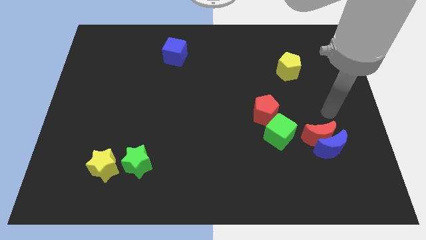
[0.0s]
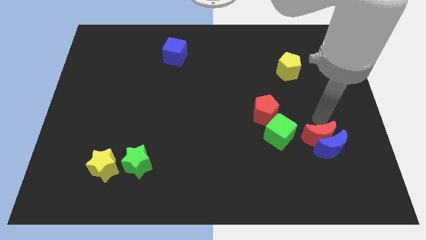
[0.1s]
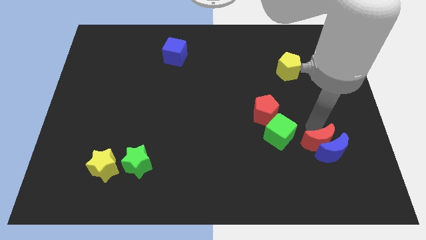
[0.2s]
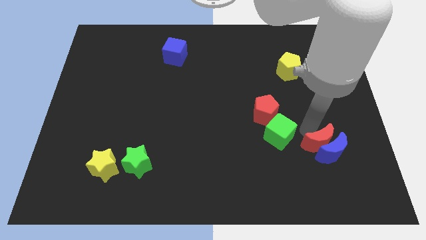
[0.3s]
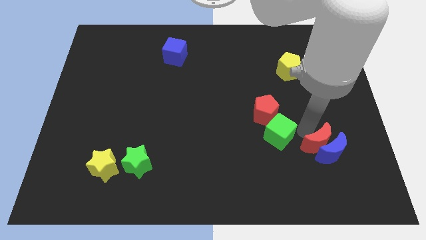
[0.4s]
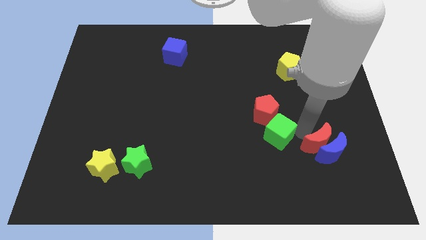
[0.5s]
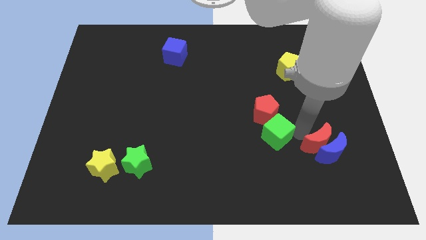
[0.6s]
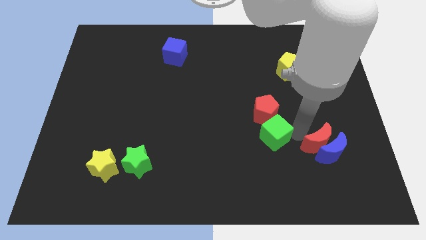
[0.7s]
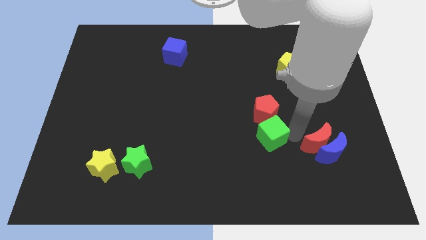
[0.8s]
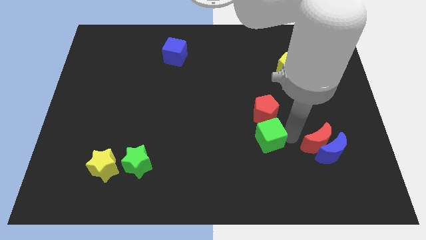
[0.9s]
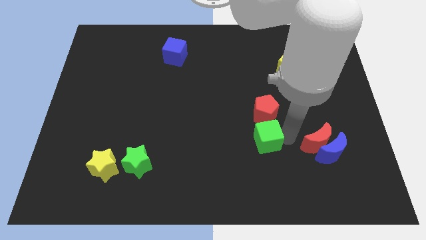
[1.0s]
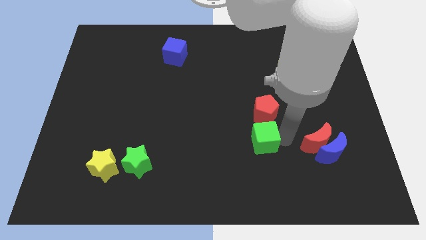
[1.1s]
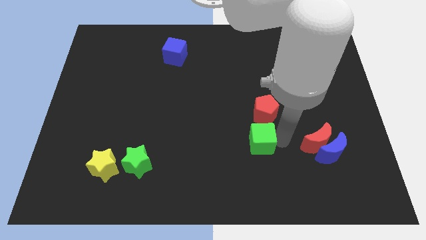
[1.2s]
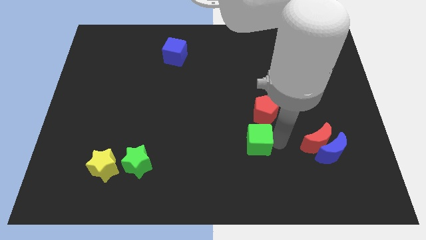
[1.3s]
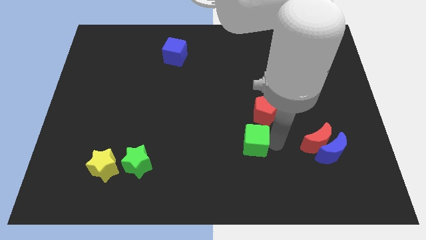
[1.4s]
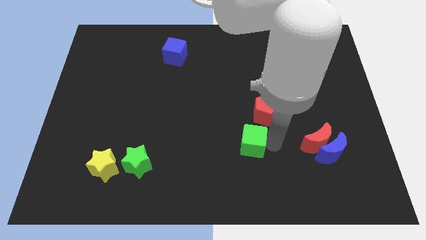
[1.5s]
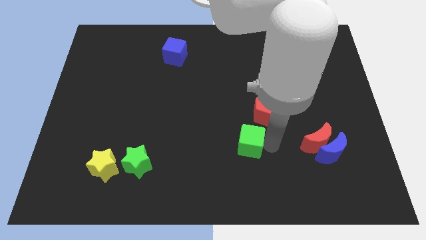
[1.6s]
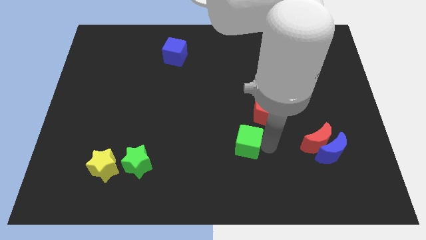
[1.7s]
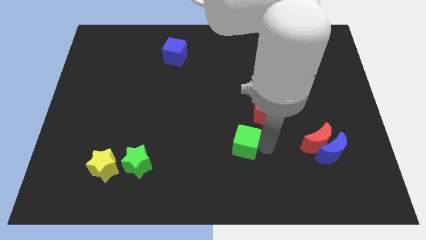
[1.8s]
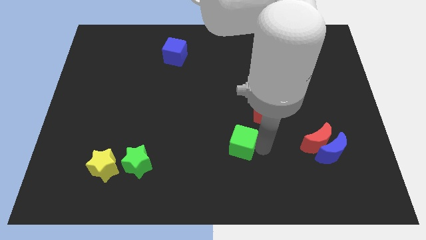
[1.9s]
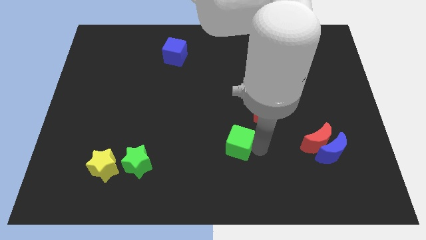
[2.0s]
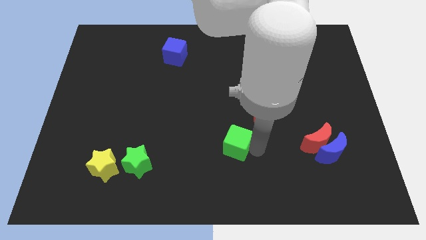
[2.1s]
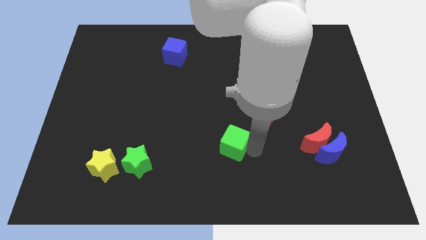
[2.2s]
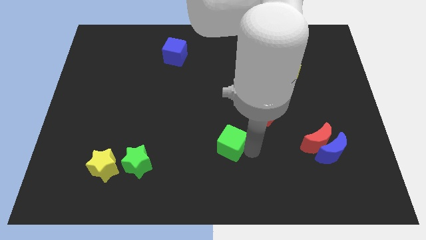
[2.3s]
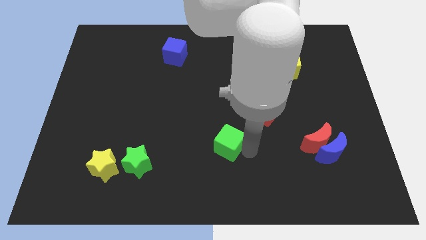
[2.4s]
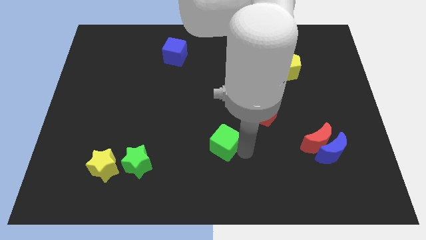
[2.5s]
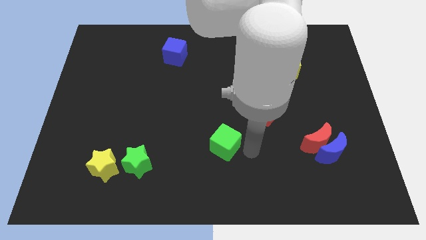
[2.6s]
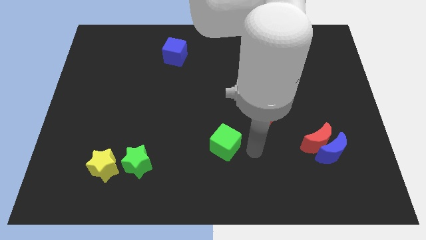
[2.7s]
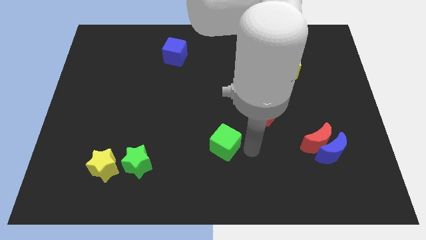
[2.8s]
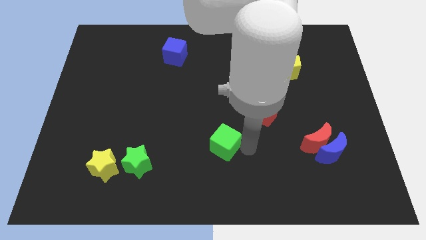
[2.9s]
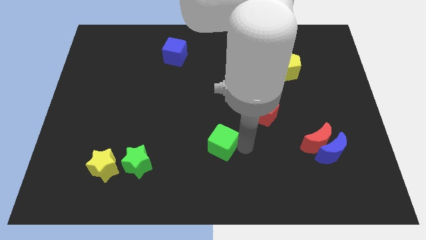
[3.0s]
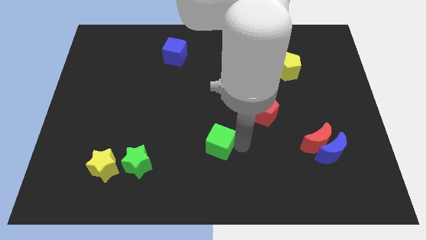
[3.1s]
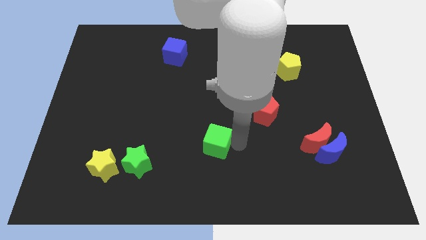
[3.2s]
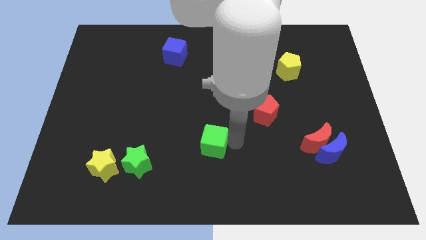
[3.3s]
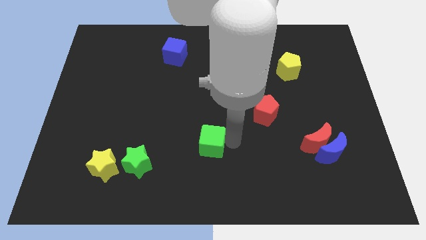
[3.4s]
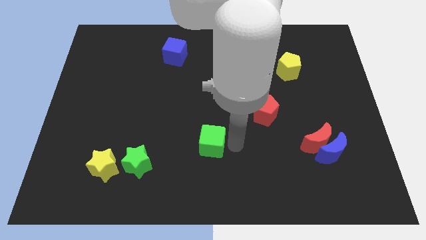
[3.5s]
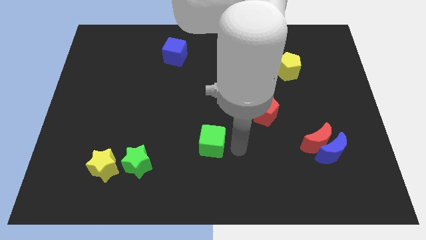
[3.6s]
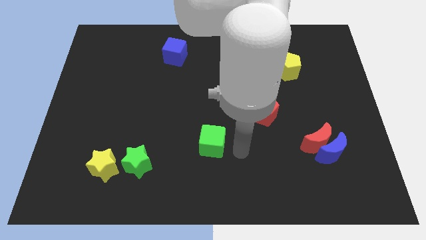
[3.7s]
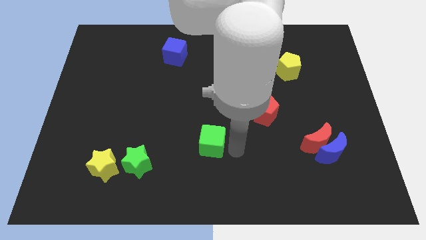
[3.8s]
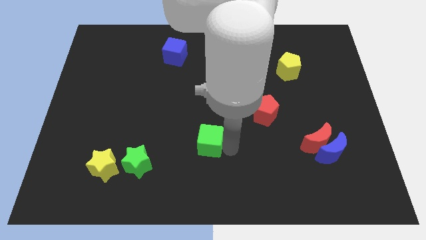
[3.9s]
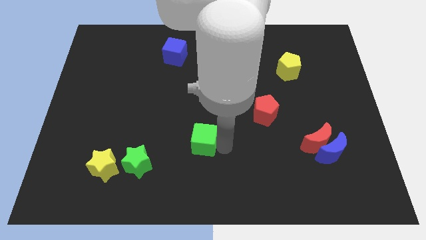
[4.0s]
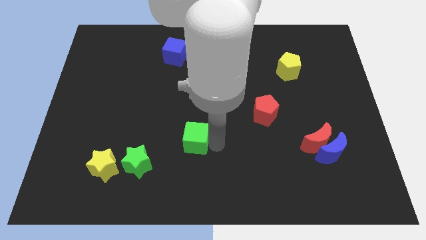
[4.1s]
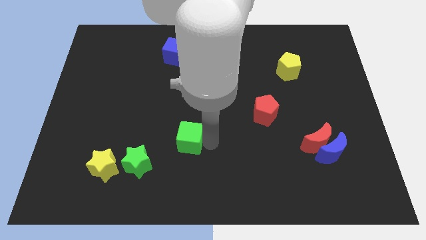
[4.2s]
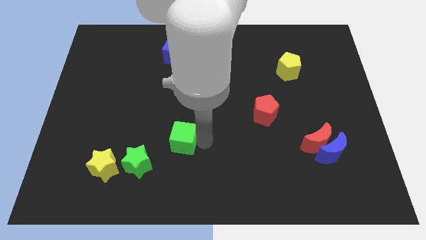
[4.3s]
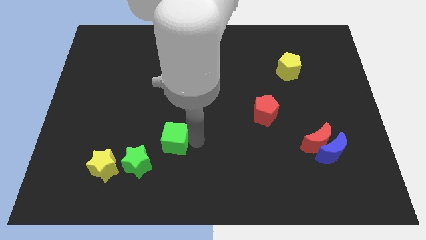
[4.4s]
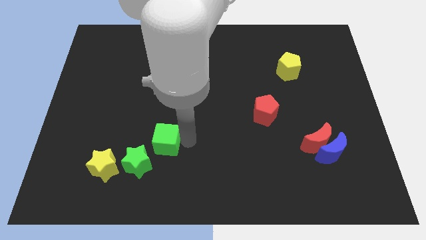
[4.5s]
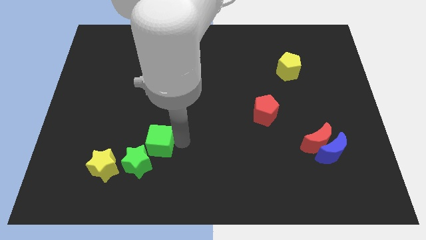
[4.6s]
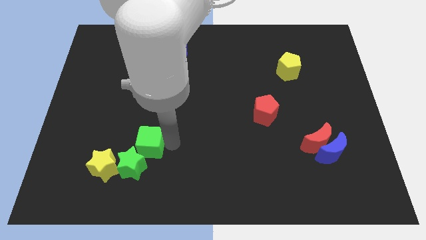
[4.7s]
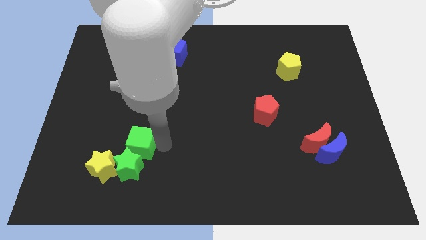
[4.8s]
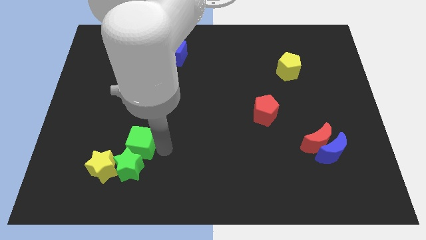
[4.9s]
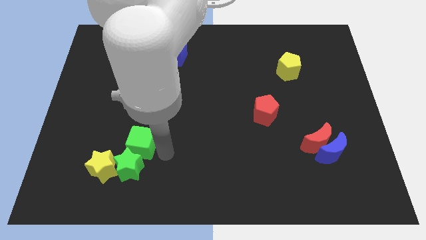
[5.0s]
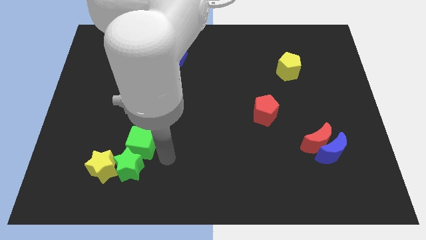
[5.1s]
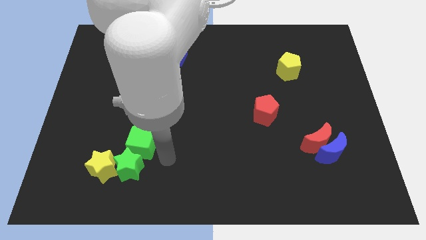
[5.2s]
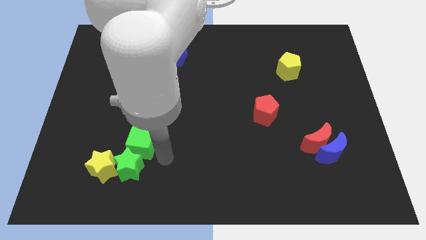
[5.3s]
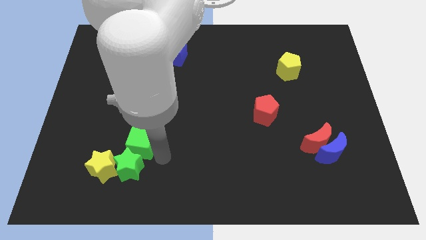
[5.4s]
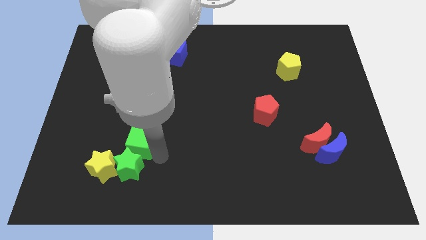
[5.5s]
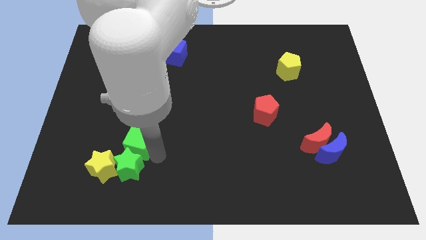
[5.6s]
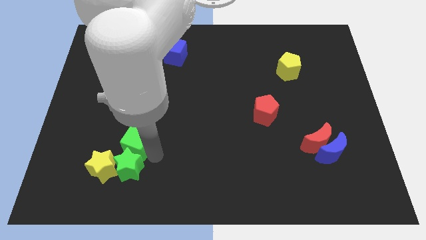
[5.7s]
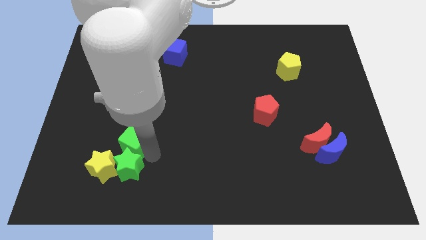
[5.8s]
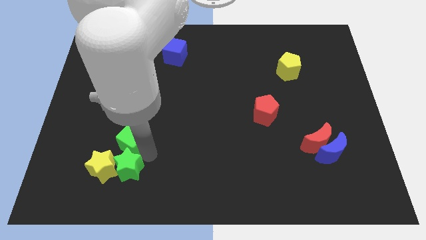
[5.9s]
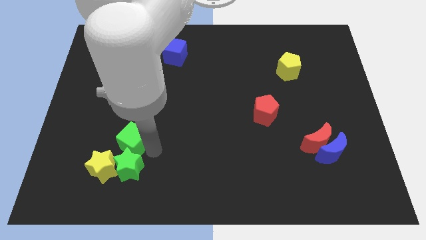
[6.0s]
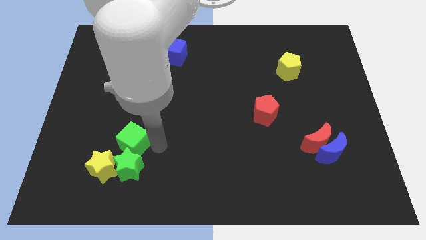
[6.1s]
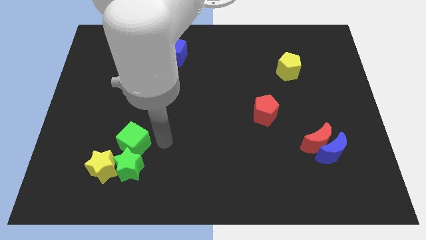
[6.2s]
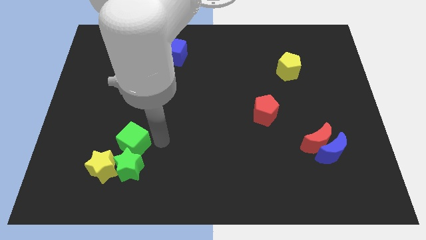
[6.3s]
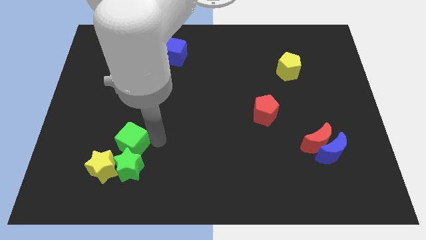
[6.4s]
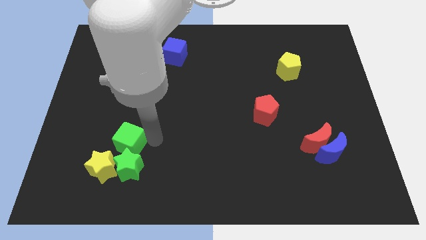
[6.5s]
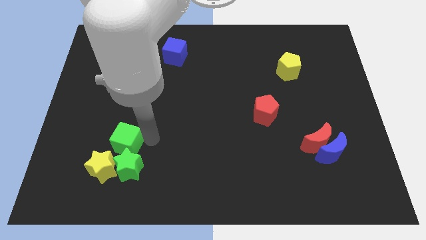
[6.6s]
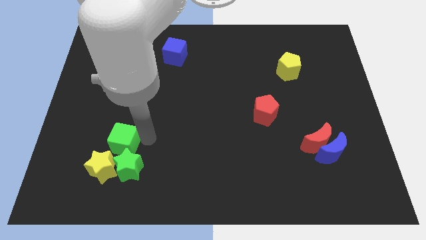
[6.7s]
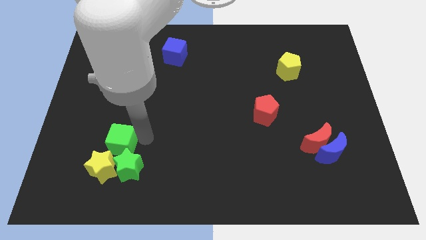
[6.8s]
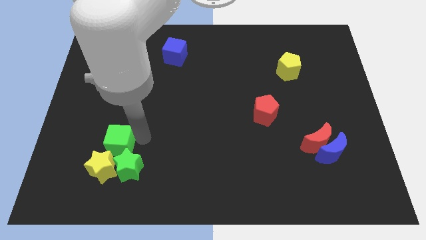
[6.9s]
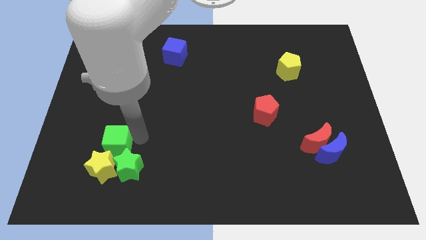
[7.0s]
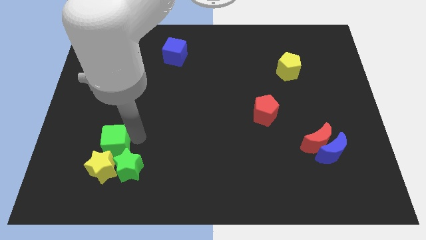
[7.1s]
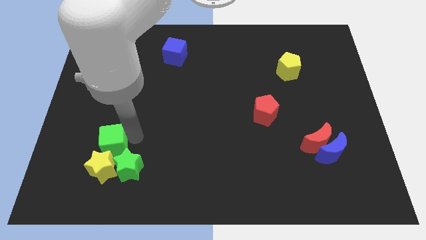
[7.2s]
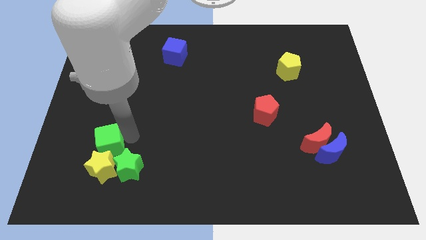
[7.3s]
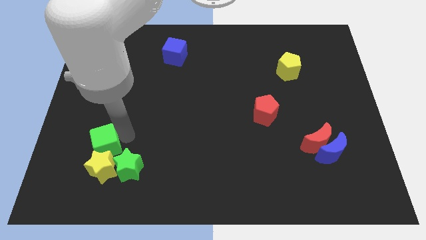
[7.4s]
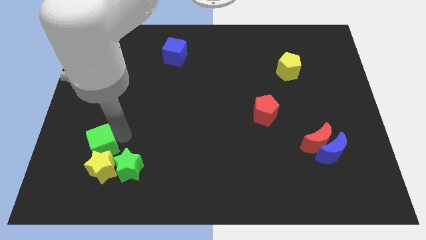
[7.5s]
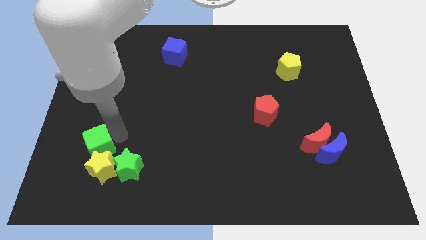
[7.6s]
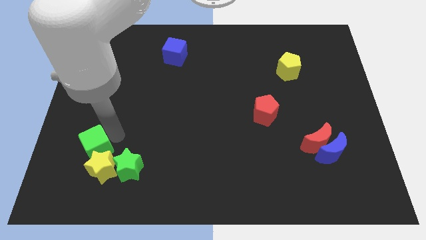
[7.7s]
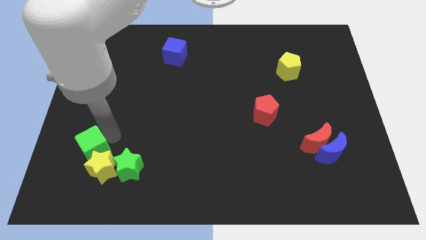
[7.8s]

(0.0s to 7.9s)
slide the green cube to the left side of the green star
